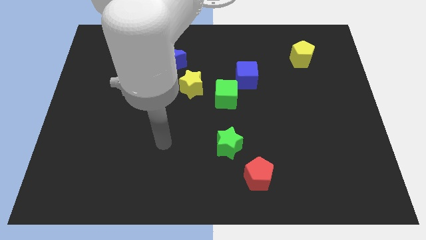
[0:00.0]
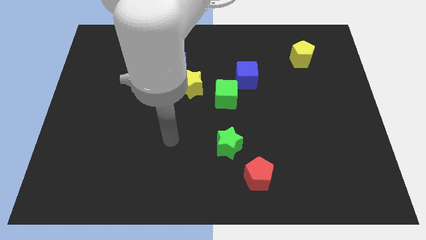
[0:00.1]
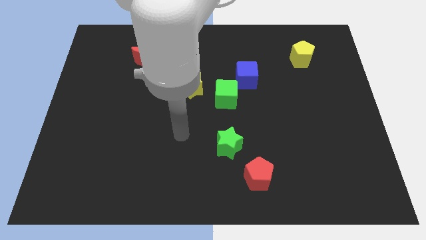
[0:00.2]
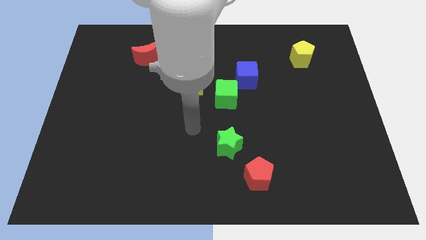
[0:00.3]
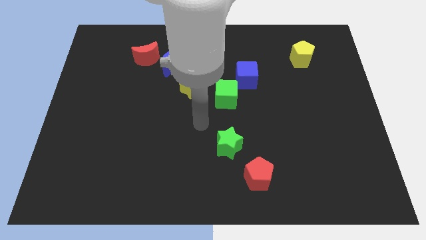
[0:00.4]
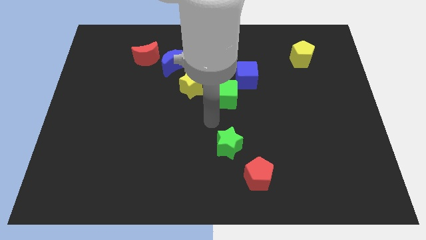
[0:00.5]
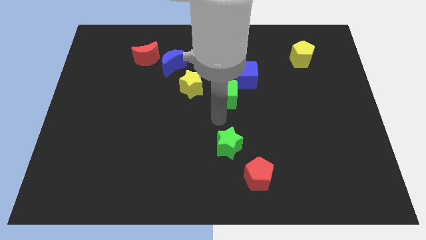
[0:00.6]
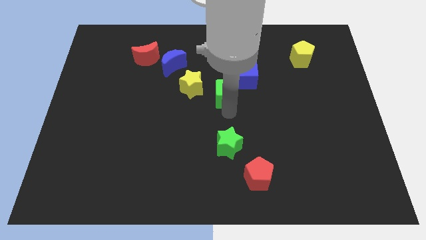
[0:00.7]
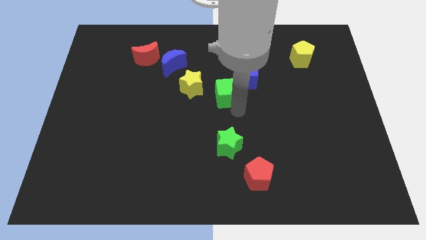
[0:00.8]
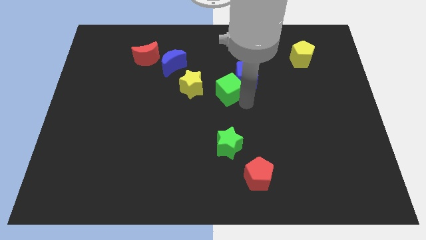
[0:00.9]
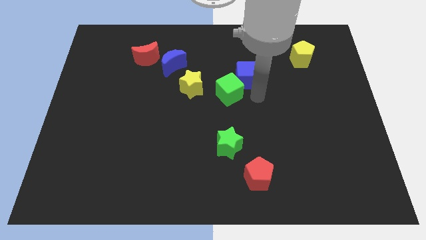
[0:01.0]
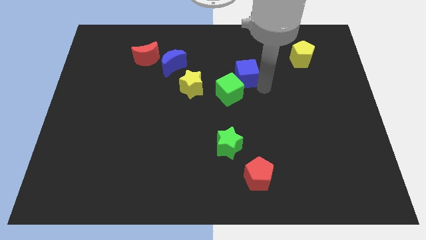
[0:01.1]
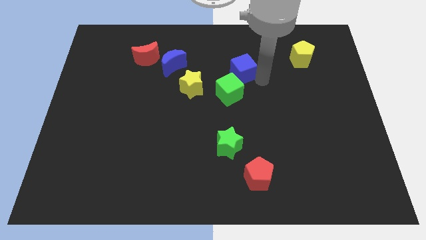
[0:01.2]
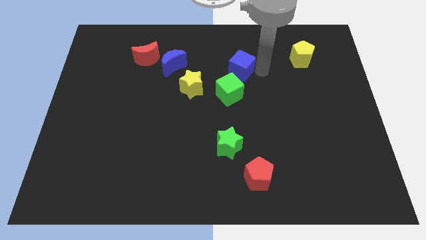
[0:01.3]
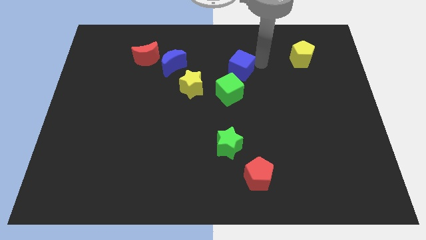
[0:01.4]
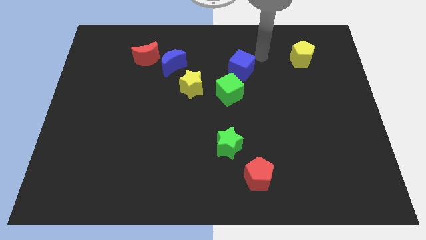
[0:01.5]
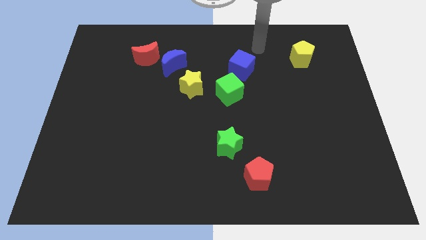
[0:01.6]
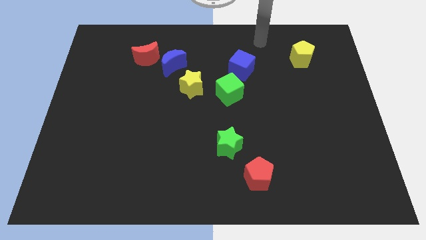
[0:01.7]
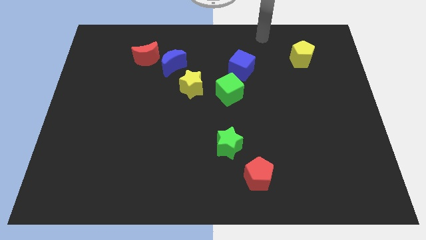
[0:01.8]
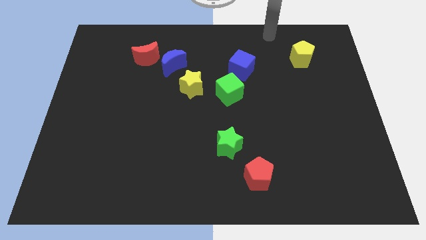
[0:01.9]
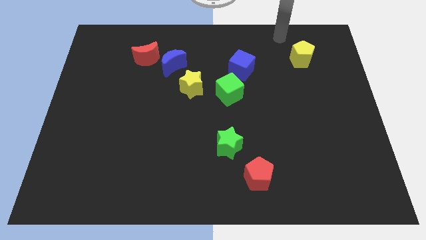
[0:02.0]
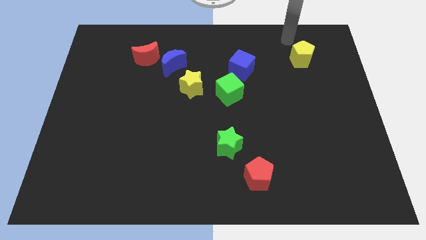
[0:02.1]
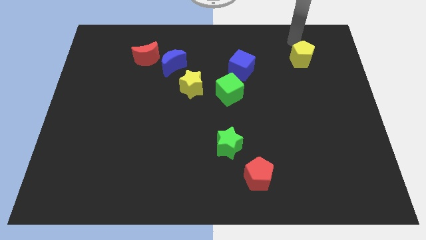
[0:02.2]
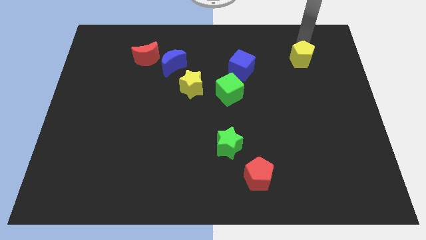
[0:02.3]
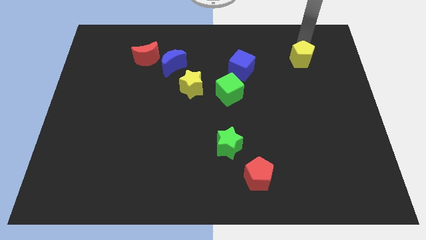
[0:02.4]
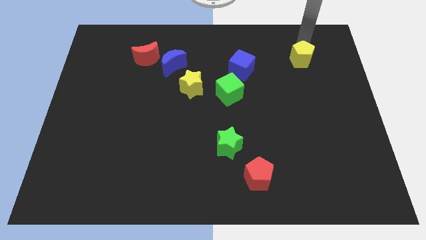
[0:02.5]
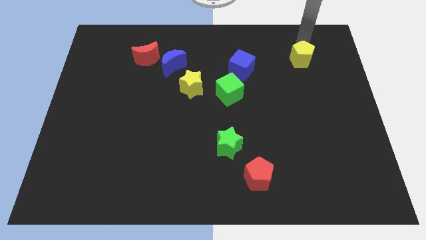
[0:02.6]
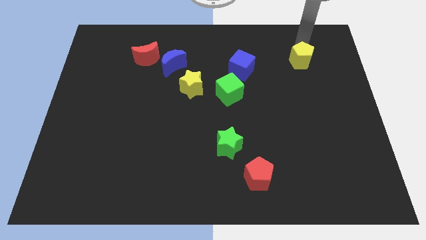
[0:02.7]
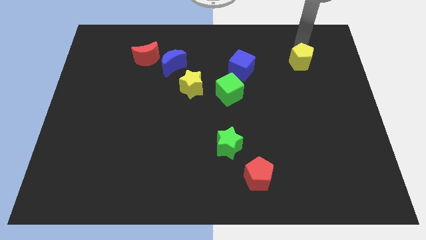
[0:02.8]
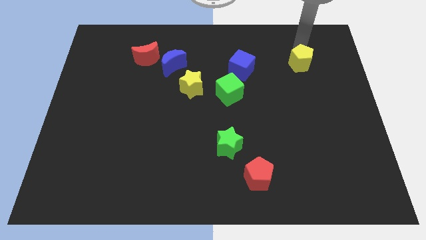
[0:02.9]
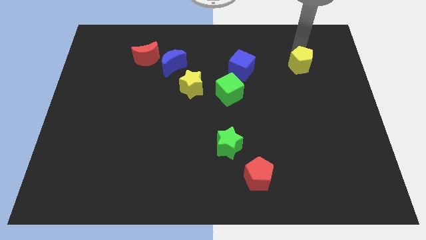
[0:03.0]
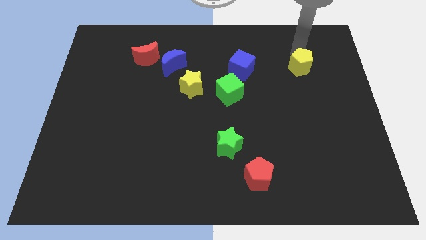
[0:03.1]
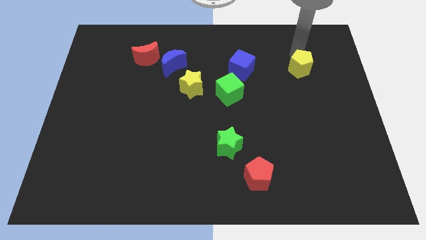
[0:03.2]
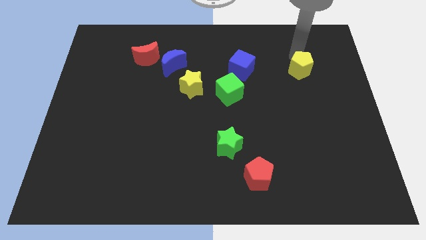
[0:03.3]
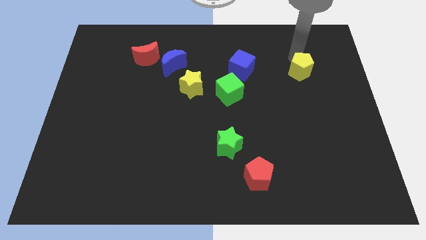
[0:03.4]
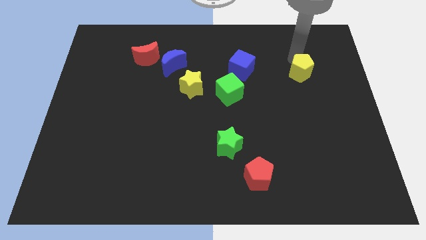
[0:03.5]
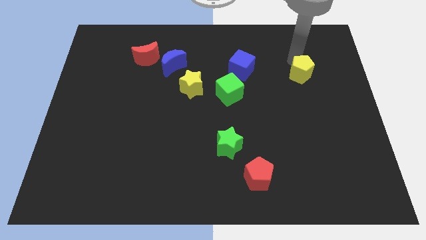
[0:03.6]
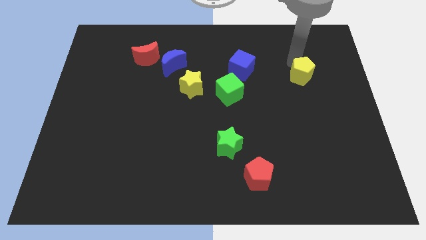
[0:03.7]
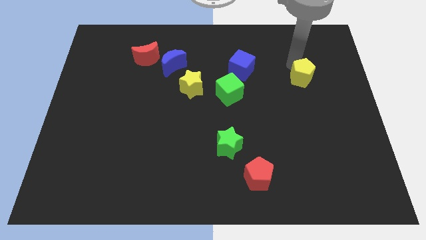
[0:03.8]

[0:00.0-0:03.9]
push the yellow pentagon down somewhat

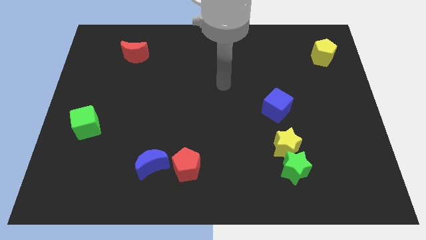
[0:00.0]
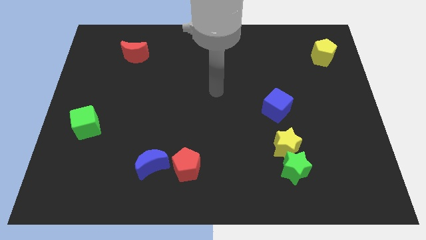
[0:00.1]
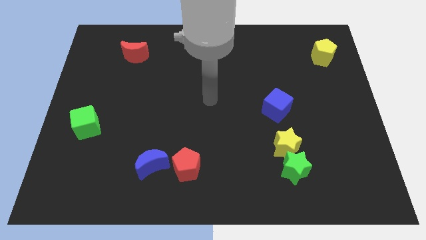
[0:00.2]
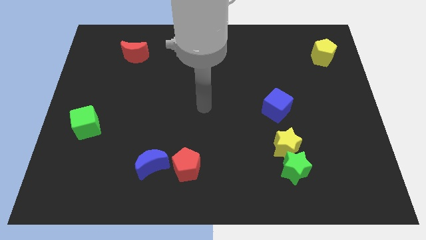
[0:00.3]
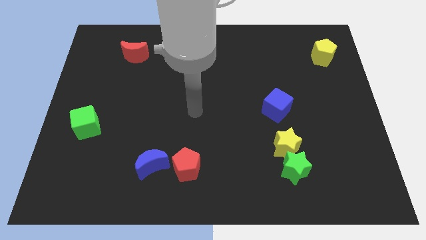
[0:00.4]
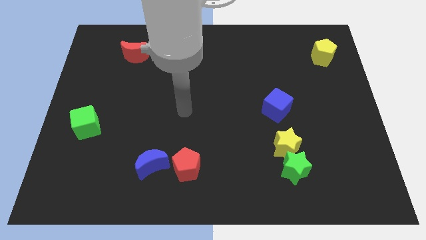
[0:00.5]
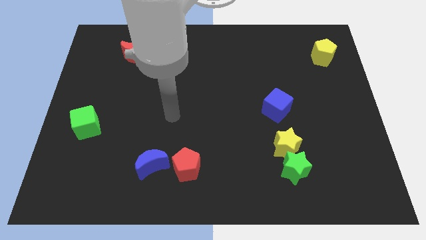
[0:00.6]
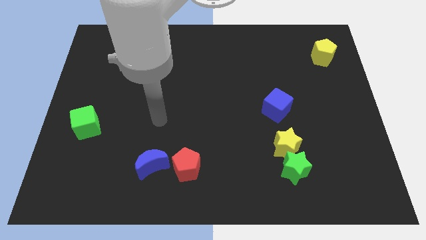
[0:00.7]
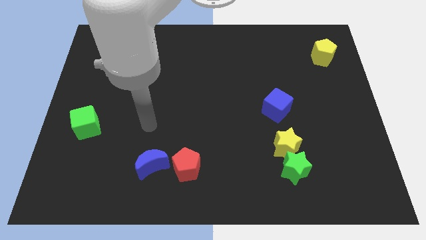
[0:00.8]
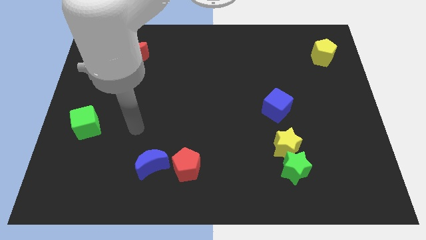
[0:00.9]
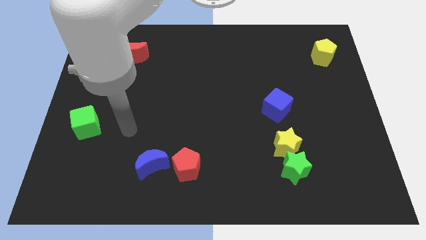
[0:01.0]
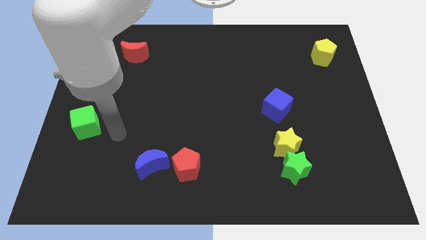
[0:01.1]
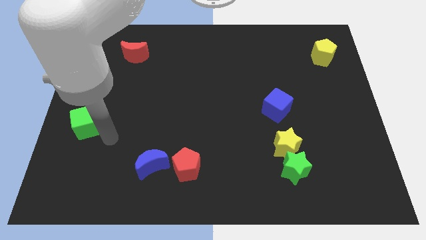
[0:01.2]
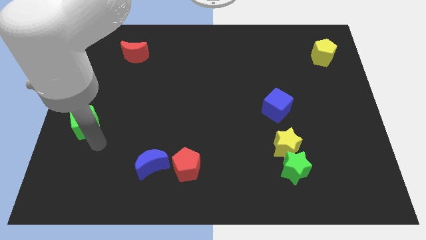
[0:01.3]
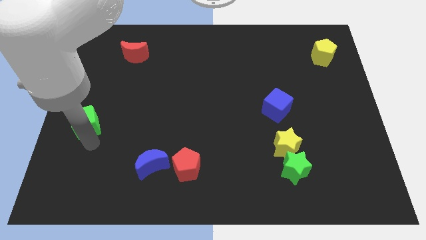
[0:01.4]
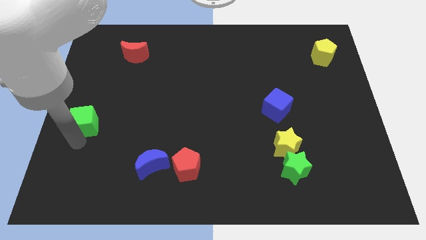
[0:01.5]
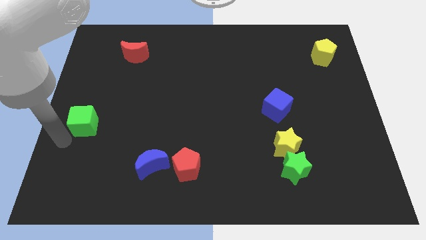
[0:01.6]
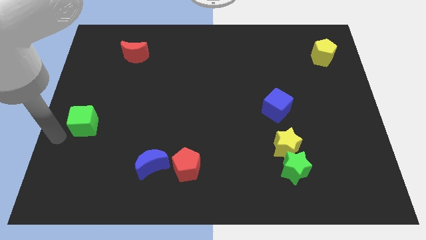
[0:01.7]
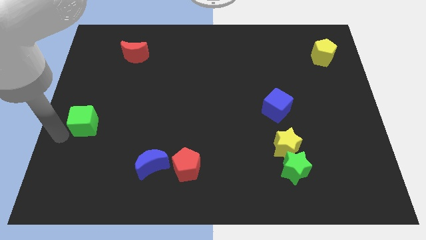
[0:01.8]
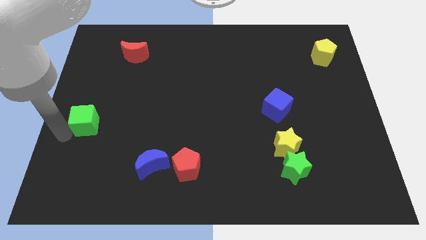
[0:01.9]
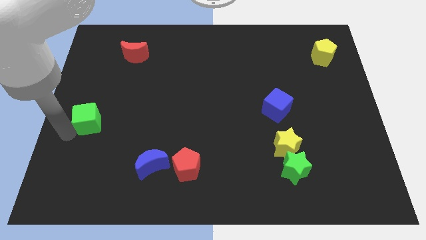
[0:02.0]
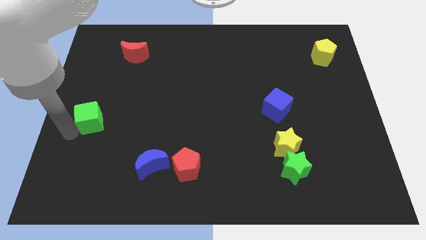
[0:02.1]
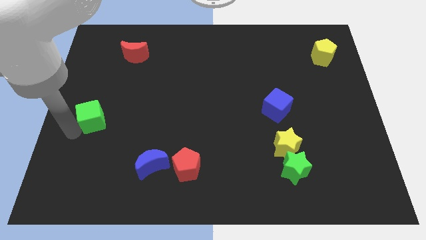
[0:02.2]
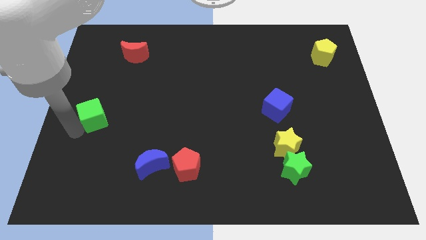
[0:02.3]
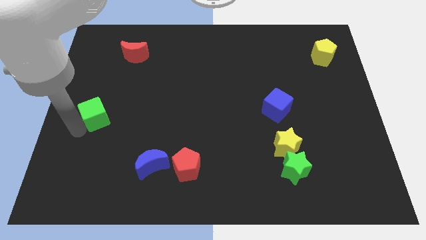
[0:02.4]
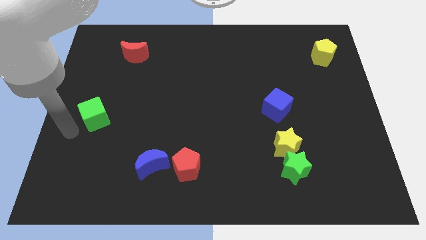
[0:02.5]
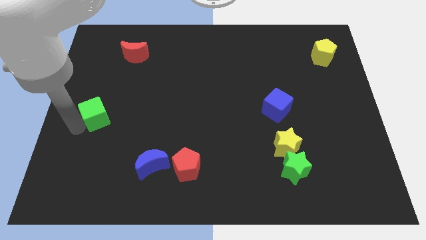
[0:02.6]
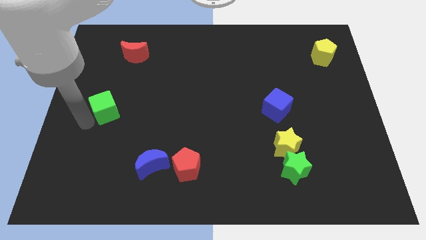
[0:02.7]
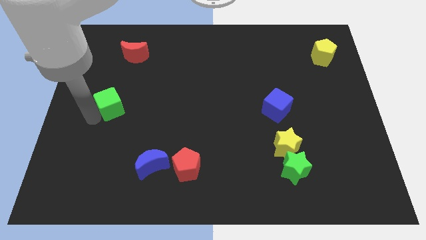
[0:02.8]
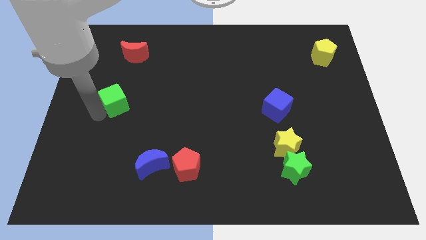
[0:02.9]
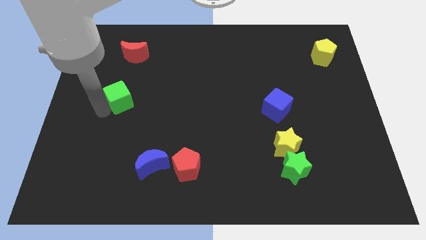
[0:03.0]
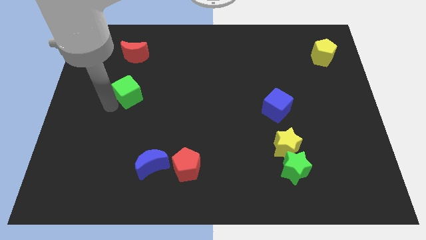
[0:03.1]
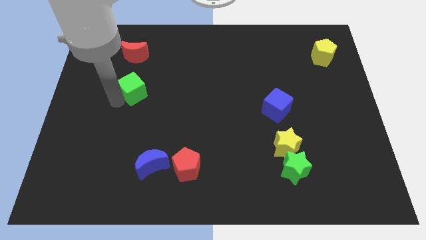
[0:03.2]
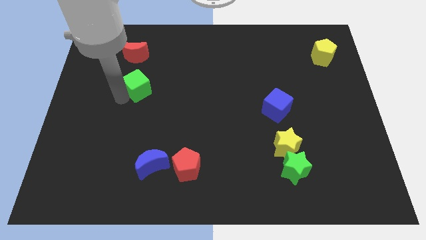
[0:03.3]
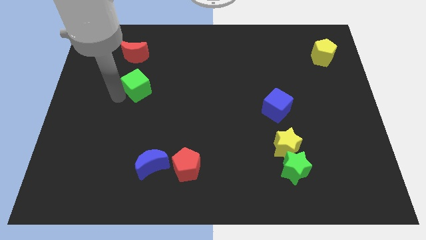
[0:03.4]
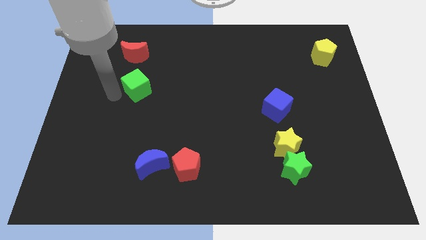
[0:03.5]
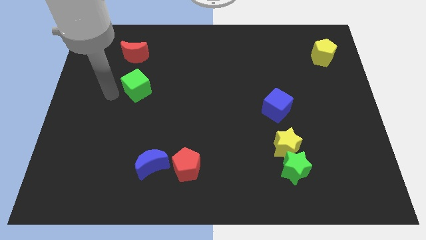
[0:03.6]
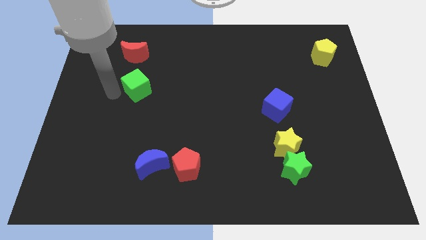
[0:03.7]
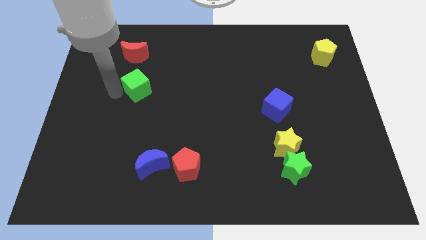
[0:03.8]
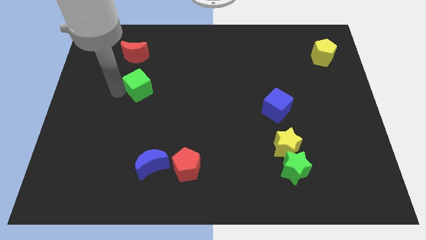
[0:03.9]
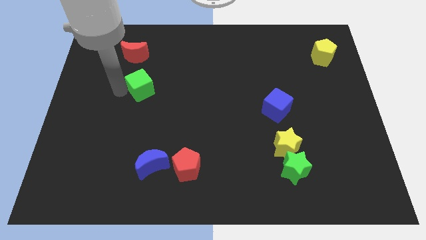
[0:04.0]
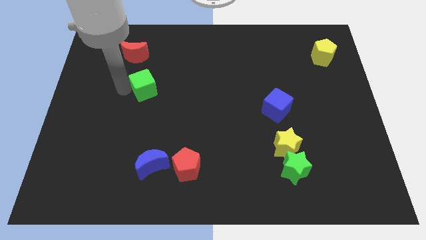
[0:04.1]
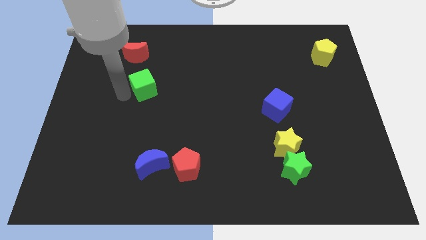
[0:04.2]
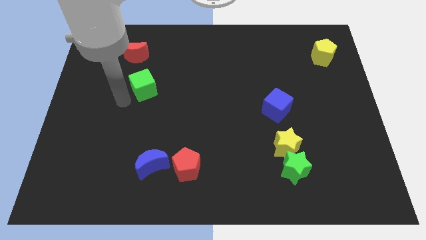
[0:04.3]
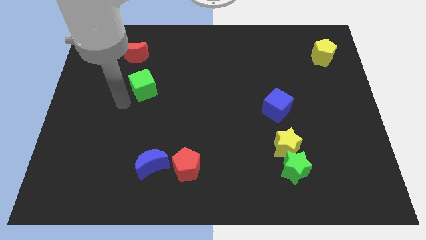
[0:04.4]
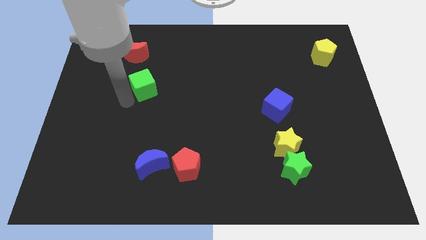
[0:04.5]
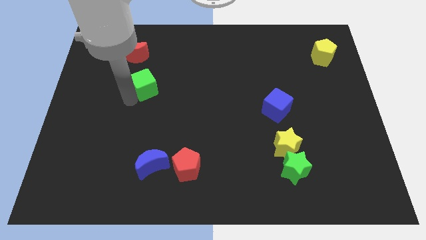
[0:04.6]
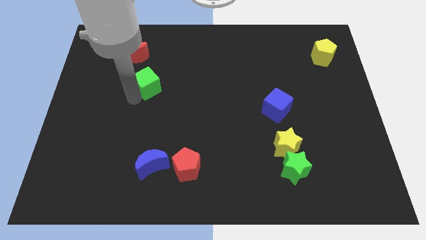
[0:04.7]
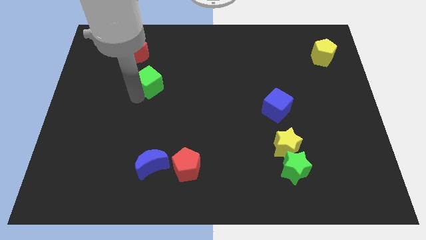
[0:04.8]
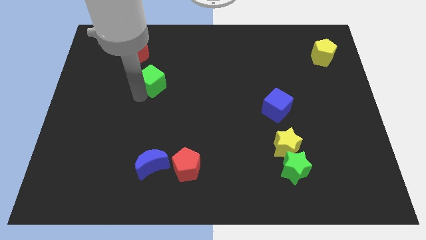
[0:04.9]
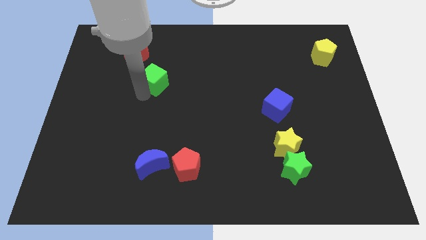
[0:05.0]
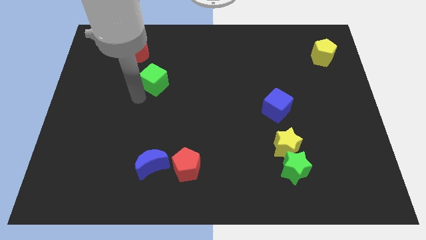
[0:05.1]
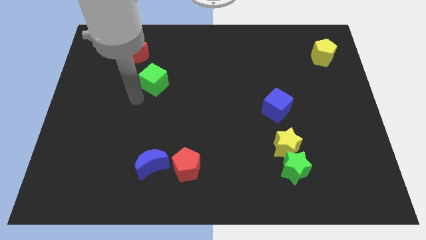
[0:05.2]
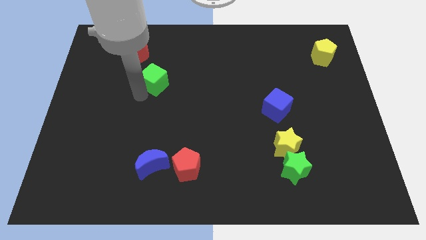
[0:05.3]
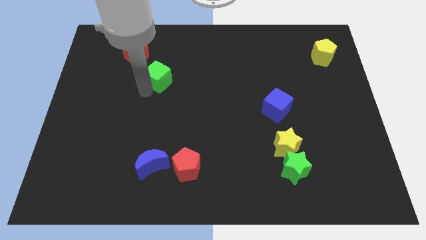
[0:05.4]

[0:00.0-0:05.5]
slide the green cube up and right diagonally
